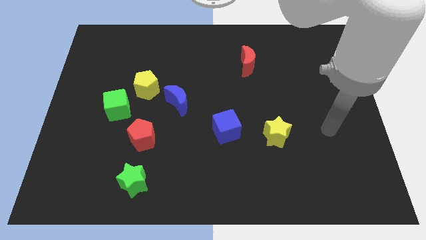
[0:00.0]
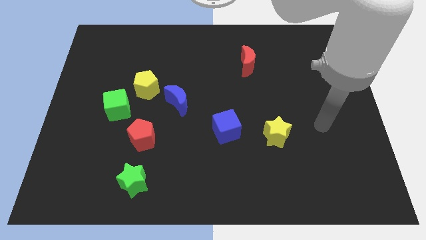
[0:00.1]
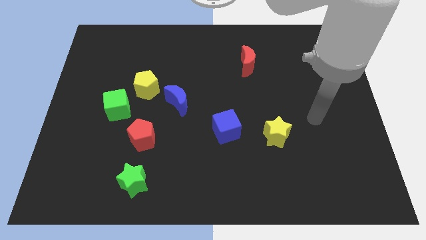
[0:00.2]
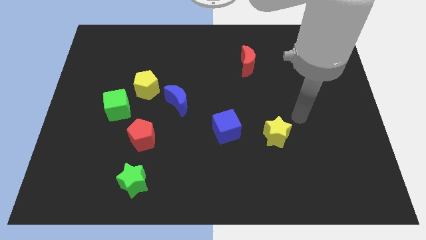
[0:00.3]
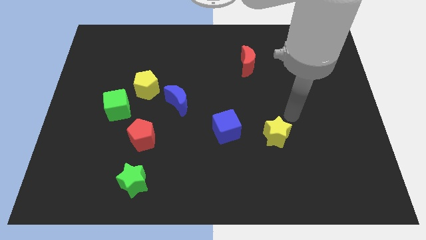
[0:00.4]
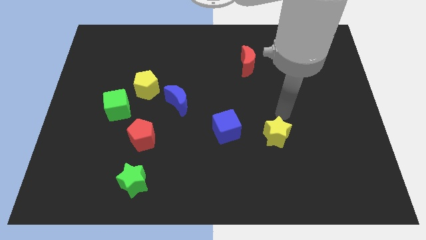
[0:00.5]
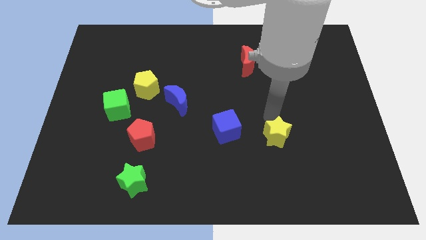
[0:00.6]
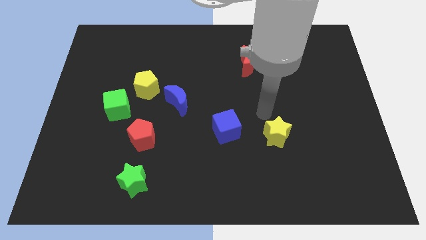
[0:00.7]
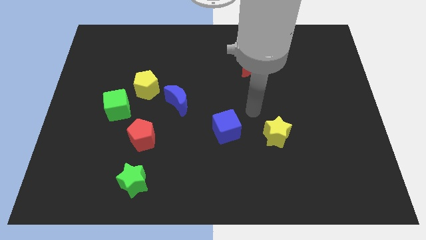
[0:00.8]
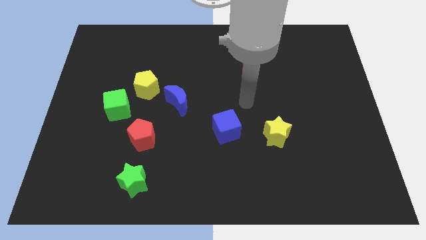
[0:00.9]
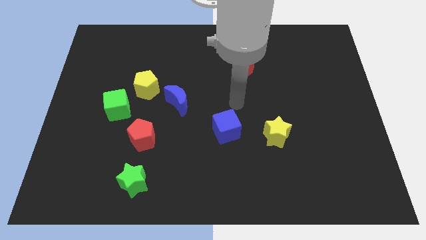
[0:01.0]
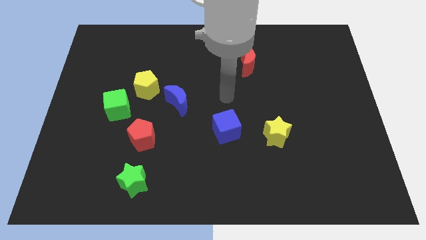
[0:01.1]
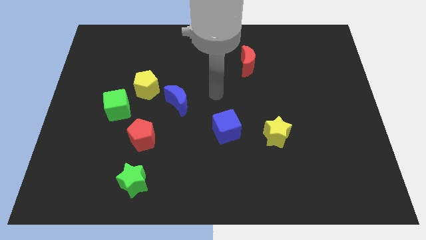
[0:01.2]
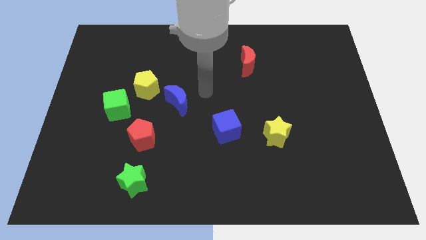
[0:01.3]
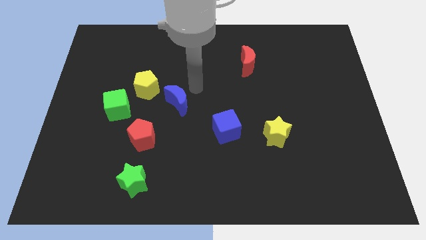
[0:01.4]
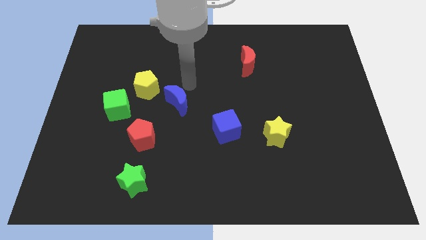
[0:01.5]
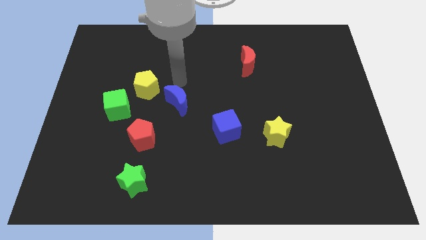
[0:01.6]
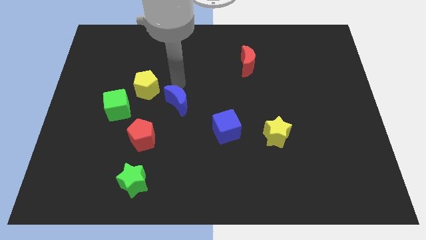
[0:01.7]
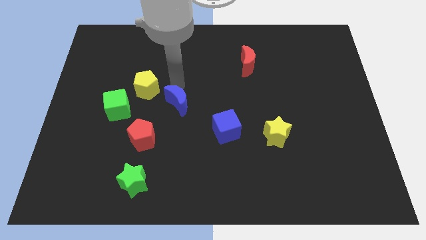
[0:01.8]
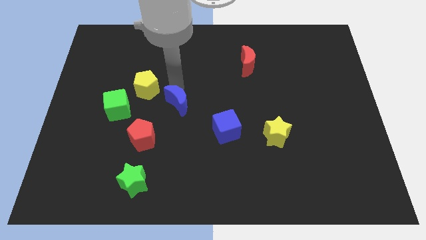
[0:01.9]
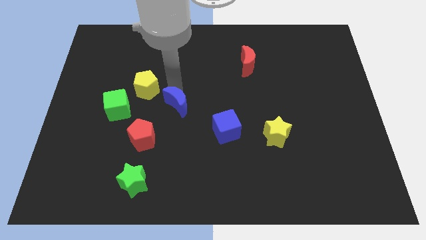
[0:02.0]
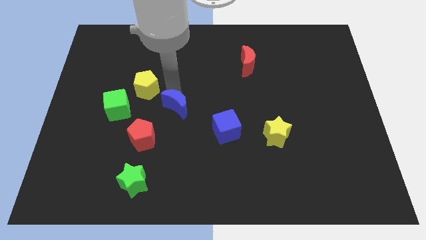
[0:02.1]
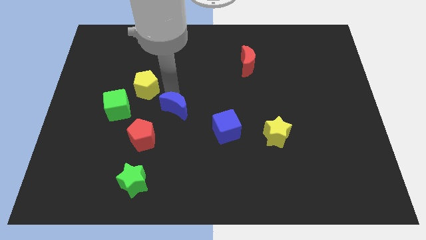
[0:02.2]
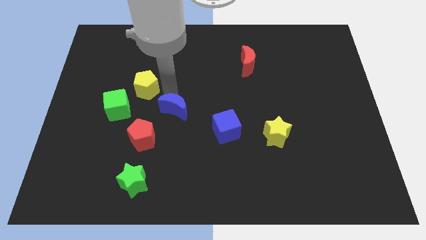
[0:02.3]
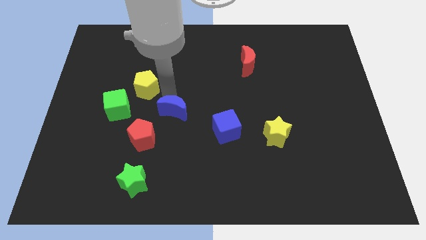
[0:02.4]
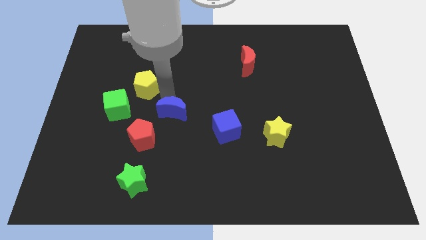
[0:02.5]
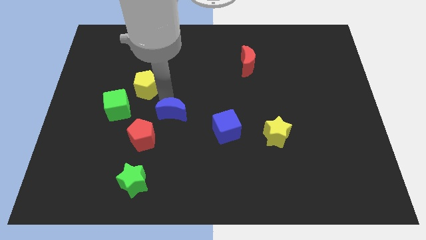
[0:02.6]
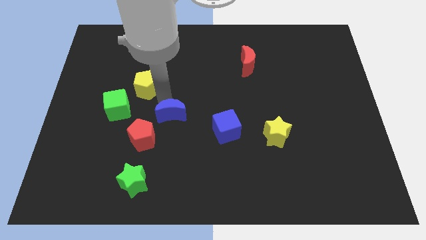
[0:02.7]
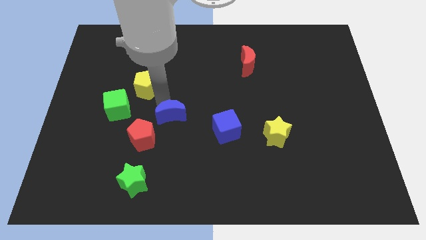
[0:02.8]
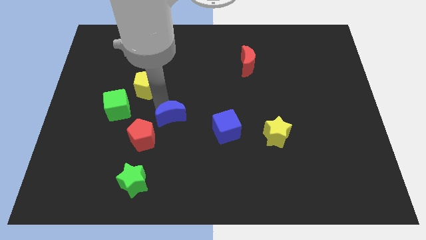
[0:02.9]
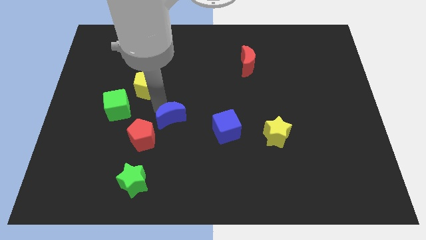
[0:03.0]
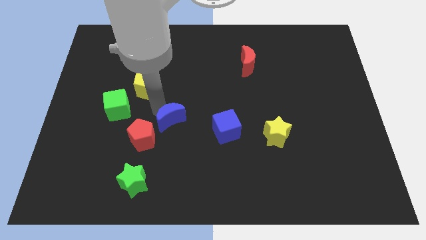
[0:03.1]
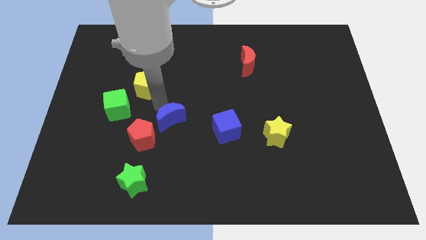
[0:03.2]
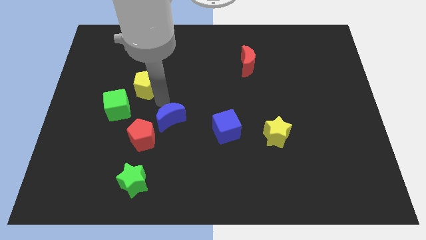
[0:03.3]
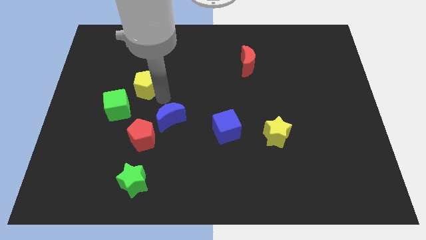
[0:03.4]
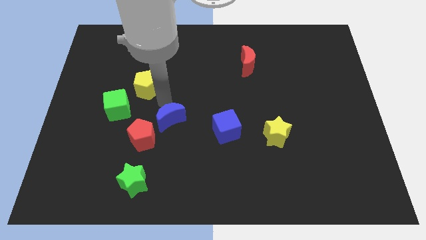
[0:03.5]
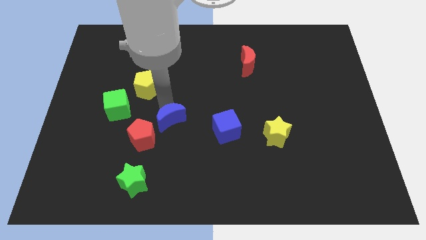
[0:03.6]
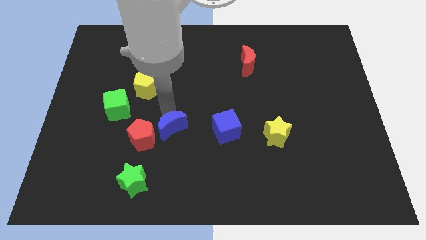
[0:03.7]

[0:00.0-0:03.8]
move the blue moon a bit downwards

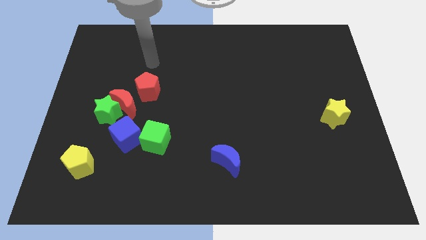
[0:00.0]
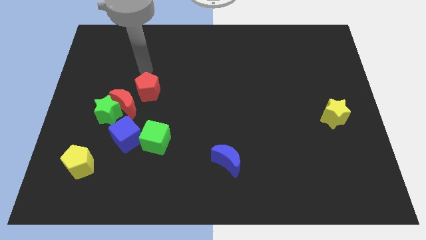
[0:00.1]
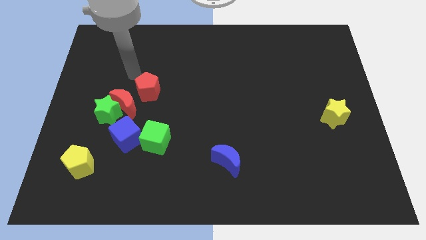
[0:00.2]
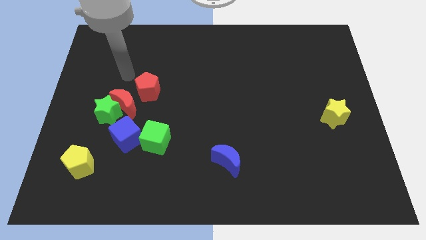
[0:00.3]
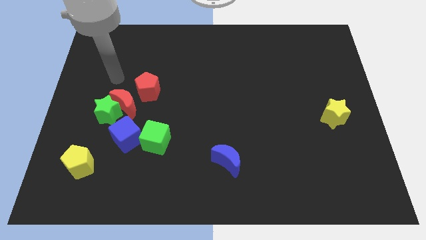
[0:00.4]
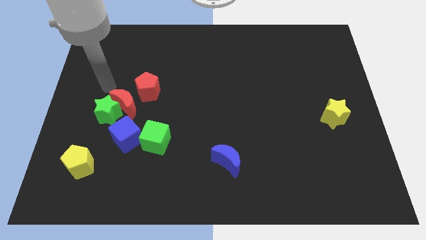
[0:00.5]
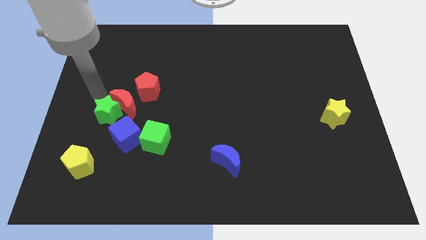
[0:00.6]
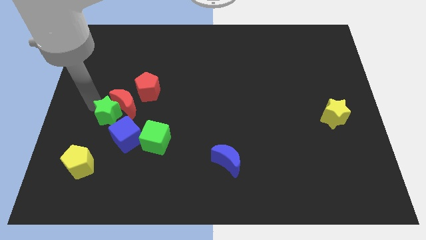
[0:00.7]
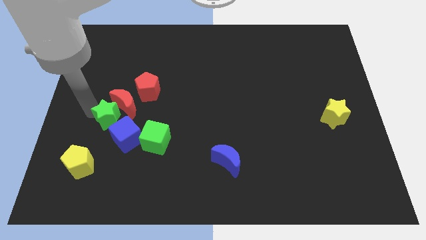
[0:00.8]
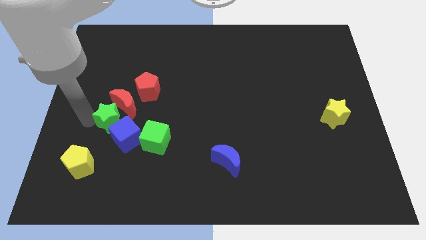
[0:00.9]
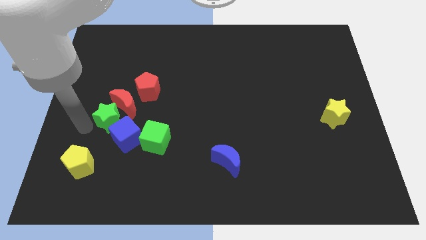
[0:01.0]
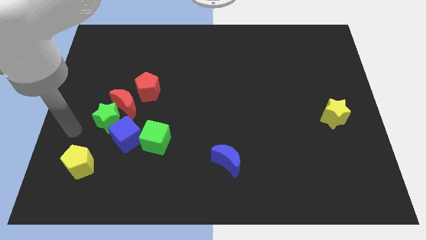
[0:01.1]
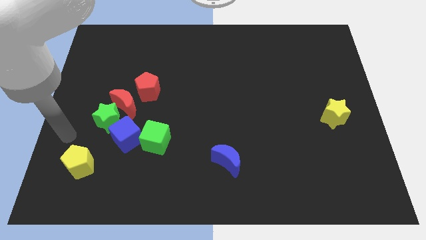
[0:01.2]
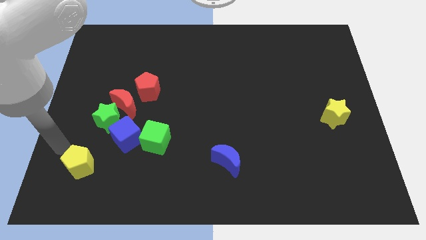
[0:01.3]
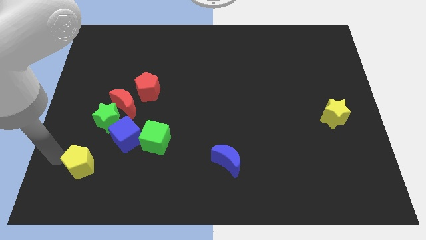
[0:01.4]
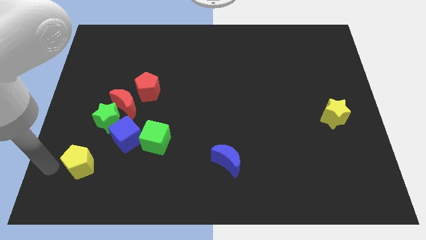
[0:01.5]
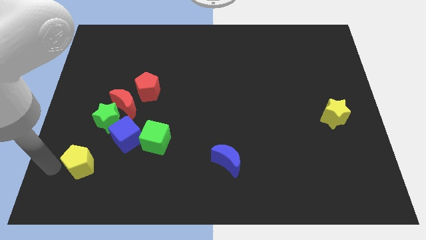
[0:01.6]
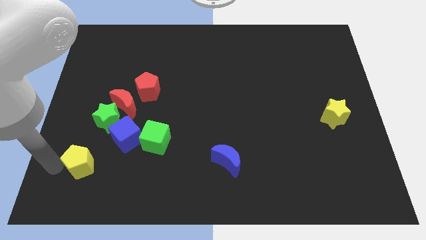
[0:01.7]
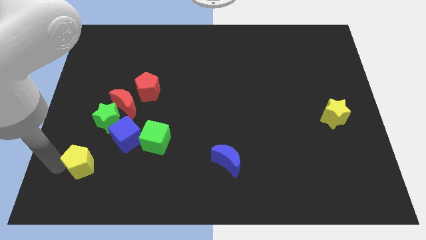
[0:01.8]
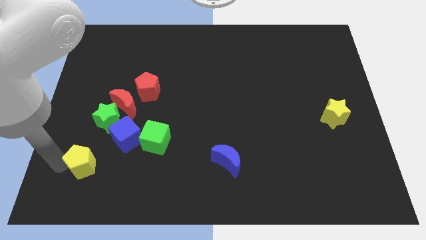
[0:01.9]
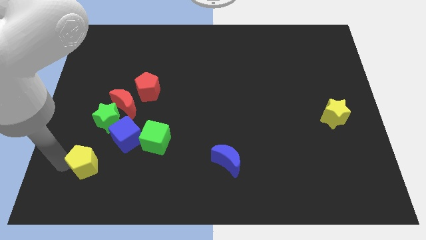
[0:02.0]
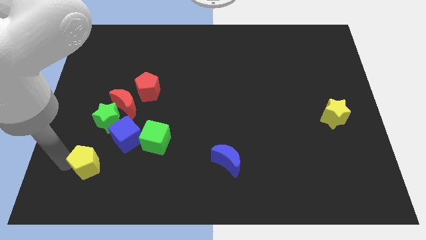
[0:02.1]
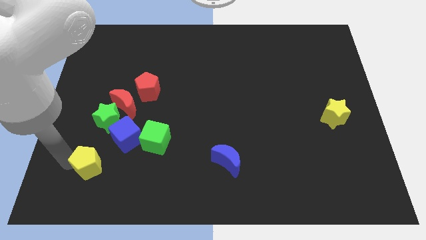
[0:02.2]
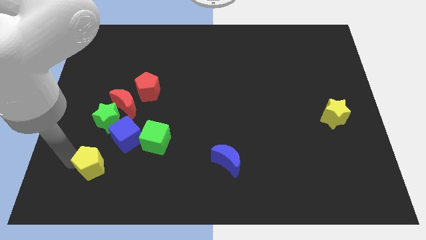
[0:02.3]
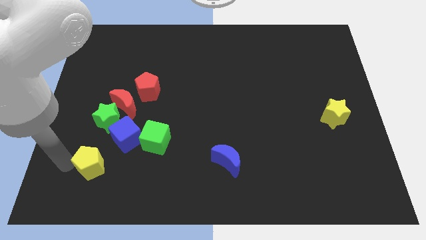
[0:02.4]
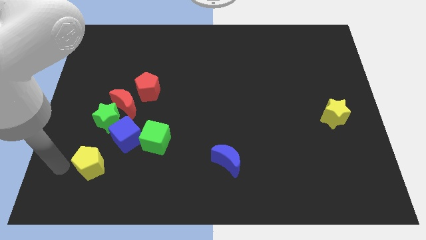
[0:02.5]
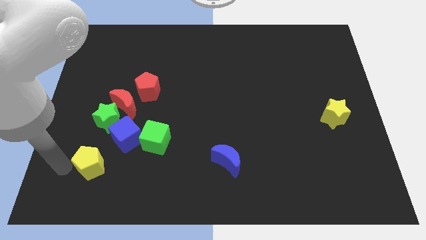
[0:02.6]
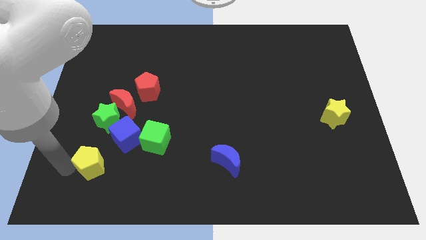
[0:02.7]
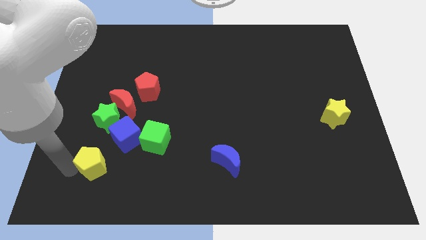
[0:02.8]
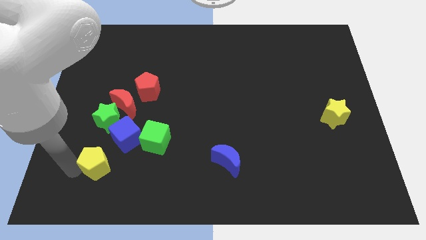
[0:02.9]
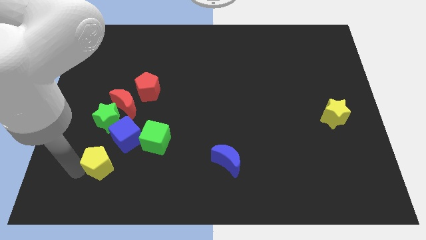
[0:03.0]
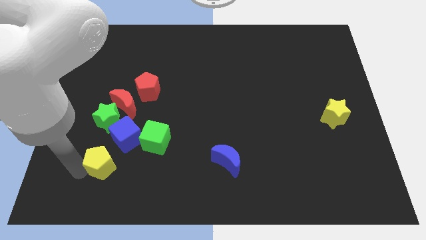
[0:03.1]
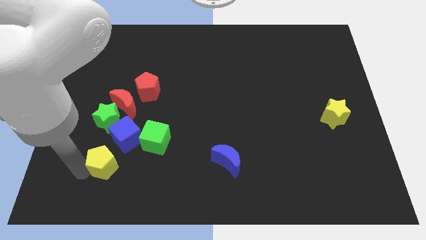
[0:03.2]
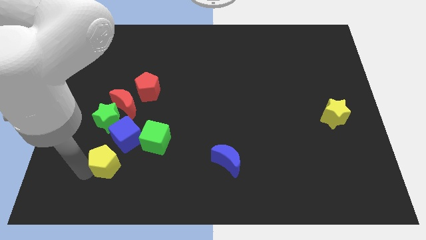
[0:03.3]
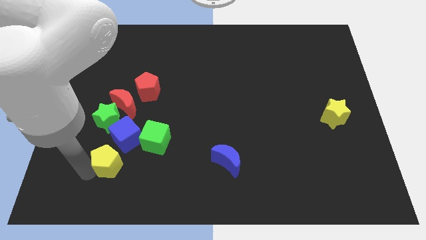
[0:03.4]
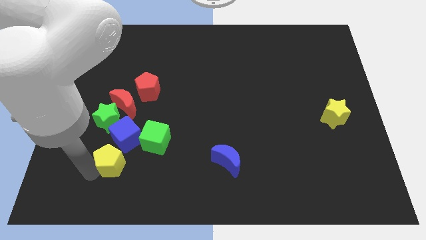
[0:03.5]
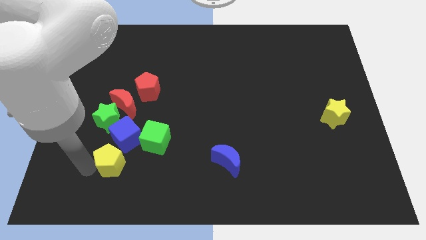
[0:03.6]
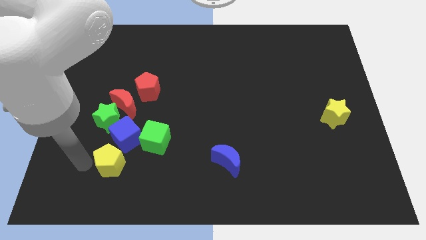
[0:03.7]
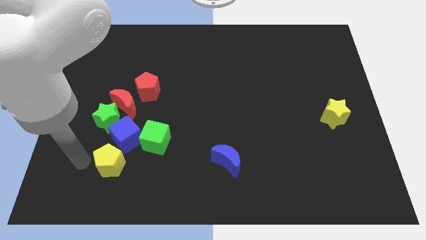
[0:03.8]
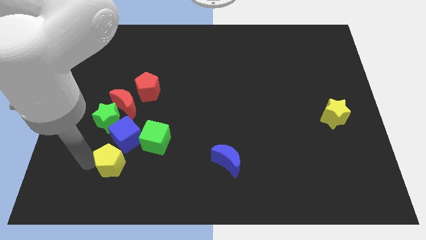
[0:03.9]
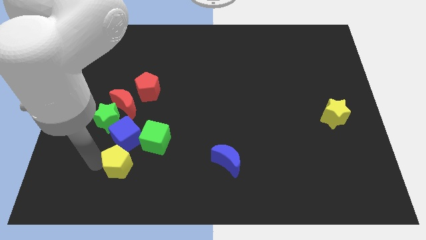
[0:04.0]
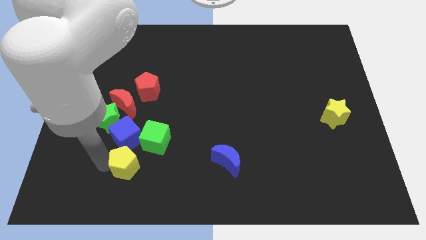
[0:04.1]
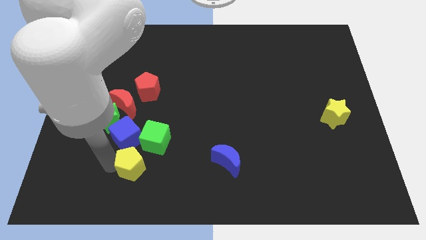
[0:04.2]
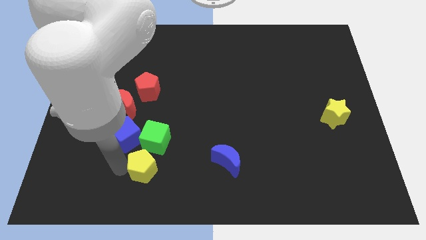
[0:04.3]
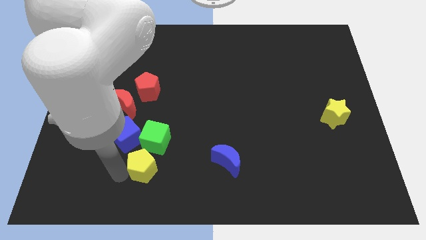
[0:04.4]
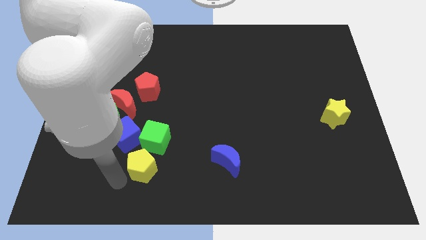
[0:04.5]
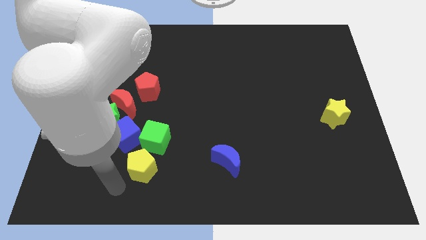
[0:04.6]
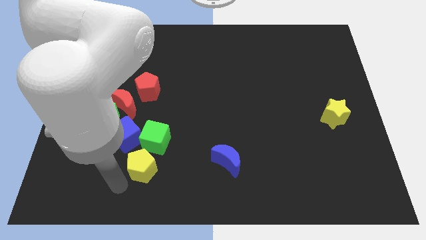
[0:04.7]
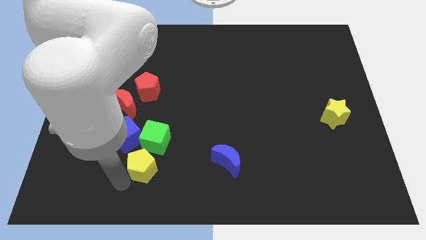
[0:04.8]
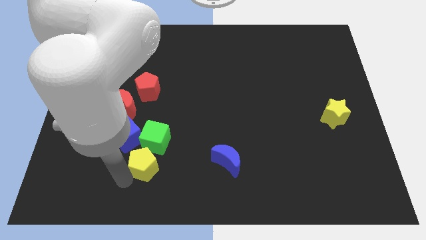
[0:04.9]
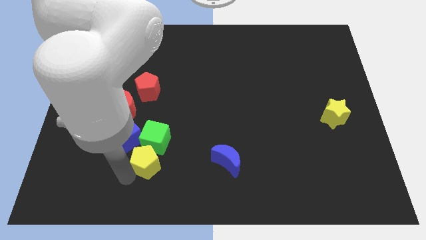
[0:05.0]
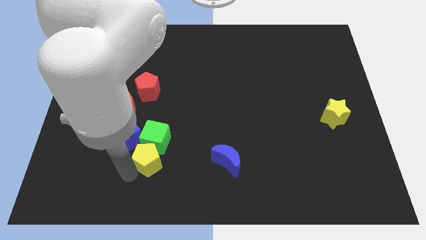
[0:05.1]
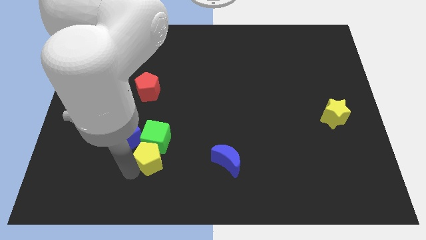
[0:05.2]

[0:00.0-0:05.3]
slide the yellow pentagon slightly up and then right
